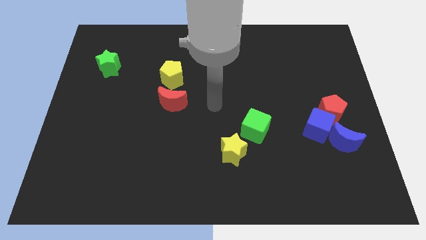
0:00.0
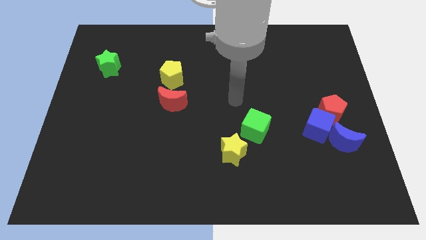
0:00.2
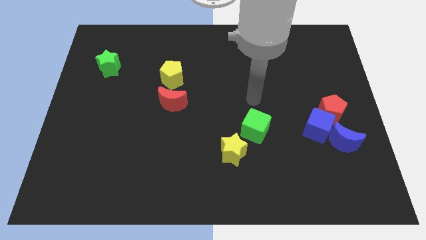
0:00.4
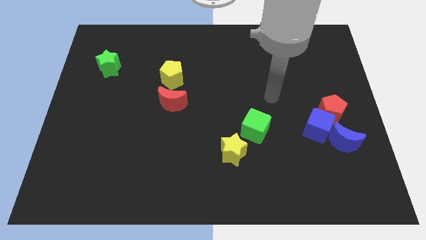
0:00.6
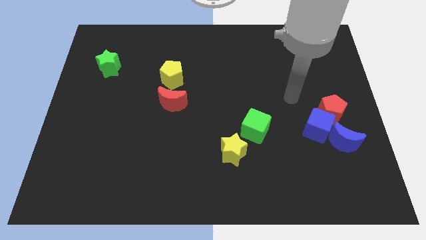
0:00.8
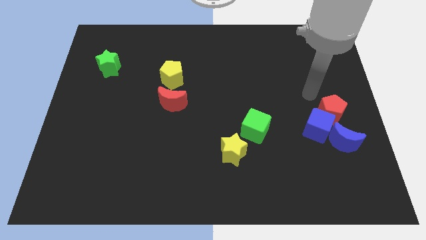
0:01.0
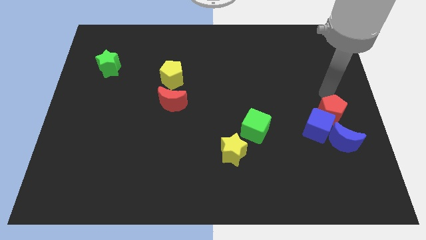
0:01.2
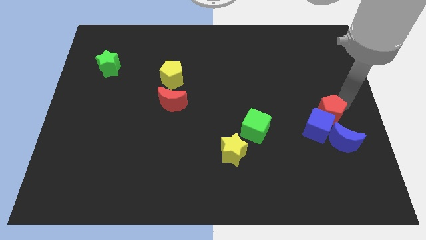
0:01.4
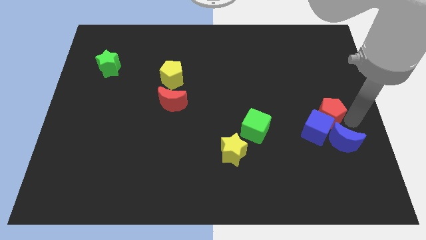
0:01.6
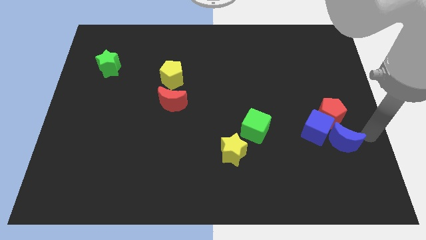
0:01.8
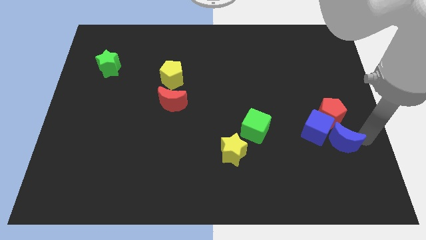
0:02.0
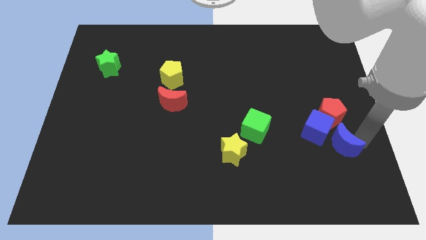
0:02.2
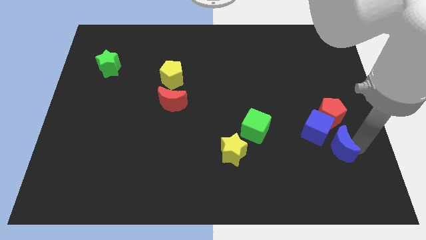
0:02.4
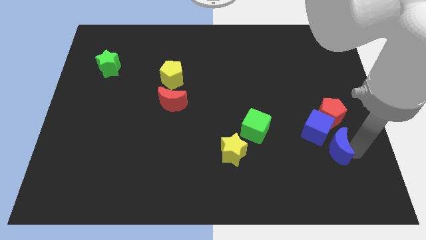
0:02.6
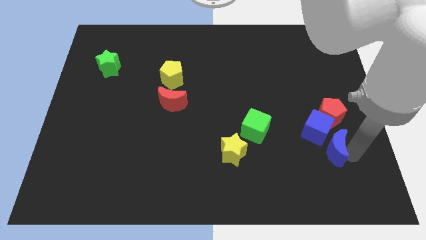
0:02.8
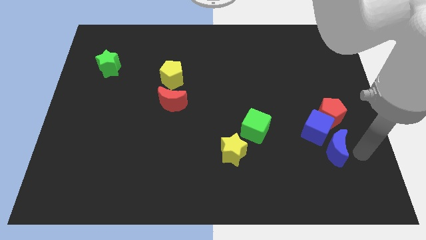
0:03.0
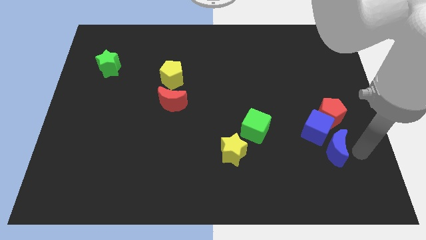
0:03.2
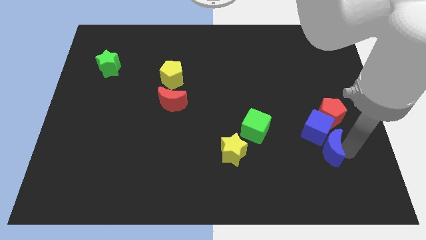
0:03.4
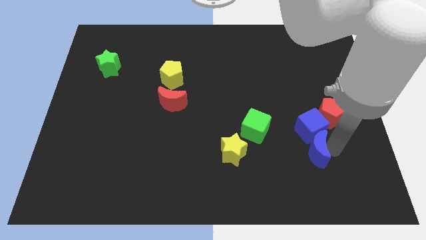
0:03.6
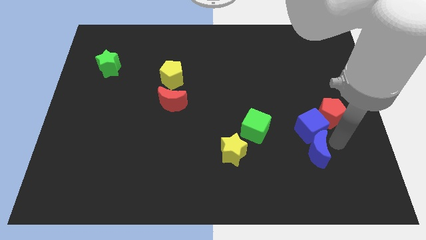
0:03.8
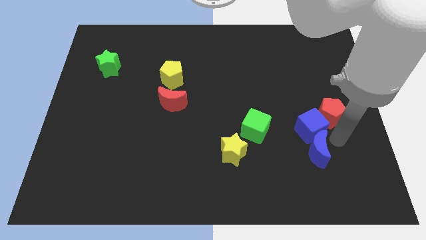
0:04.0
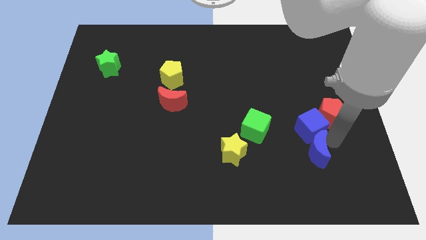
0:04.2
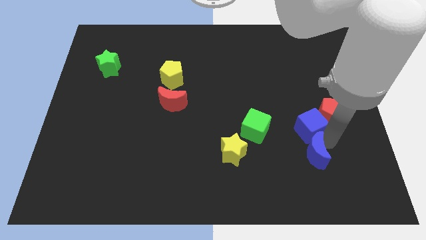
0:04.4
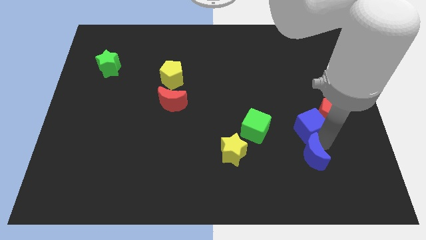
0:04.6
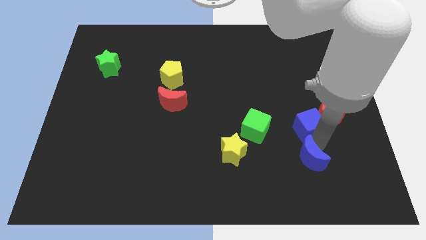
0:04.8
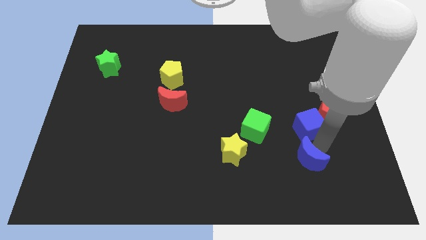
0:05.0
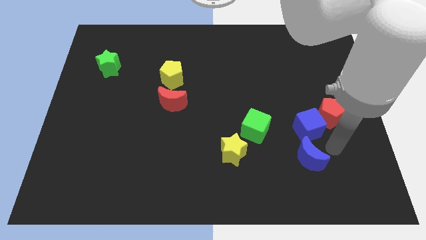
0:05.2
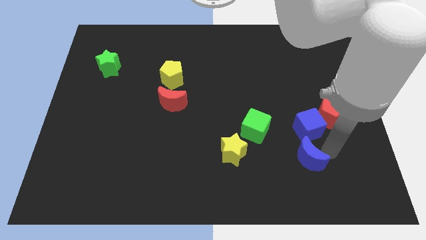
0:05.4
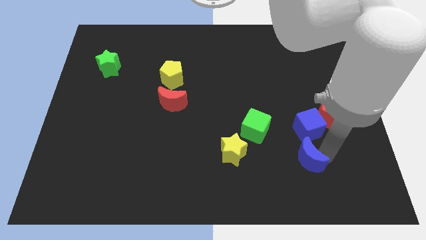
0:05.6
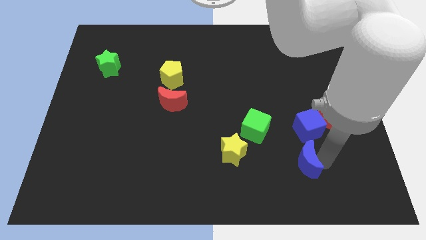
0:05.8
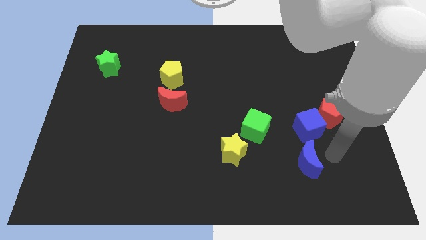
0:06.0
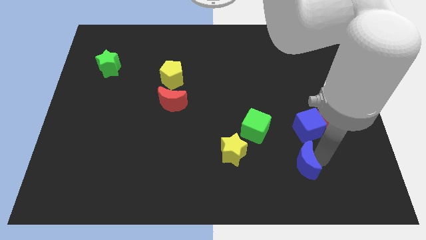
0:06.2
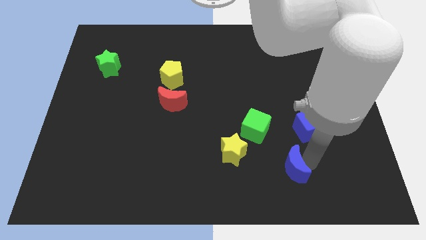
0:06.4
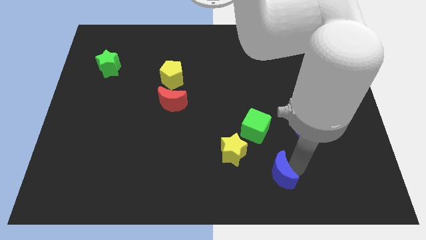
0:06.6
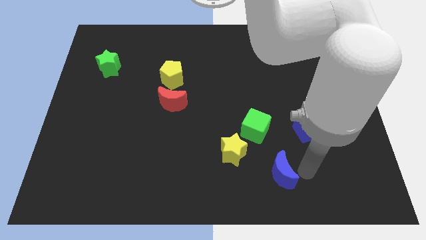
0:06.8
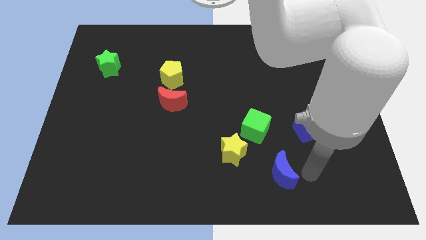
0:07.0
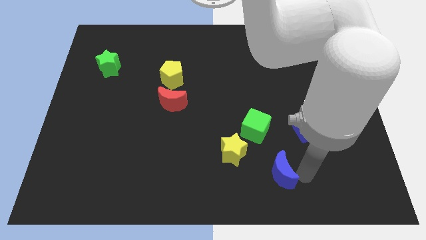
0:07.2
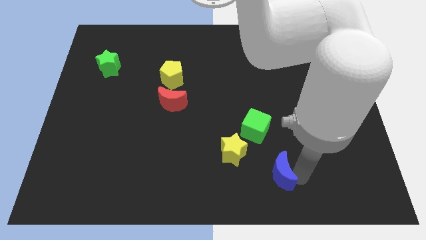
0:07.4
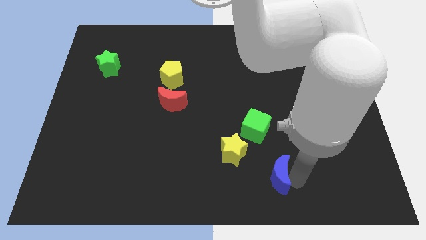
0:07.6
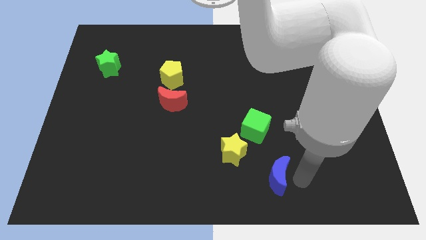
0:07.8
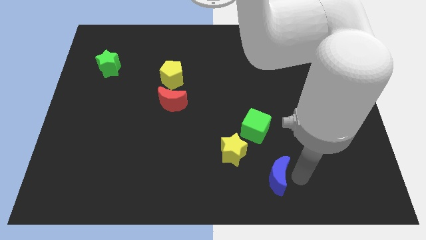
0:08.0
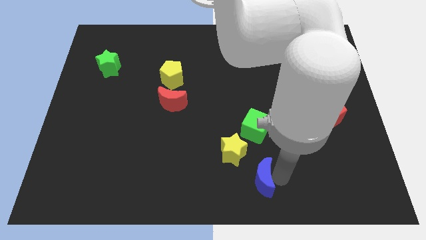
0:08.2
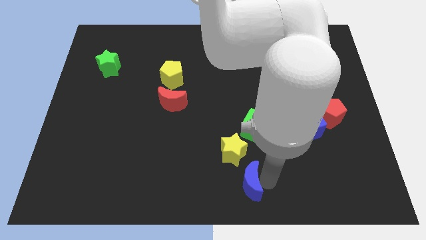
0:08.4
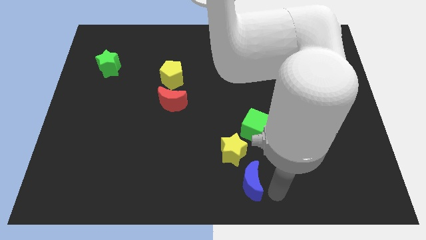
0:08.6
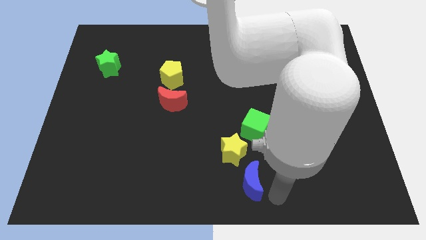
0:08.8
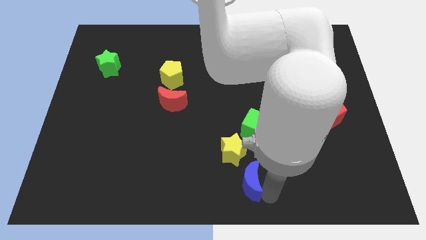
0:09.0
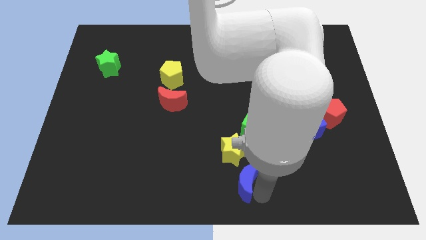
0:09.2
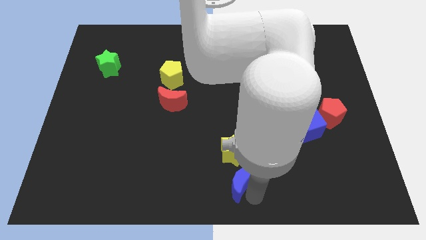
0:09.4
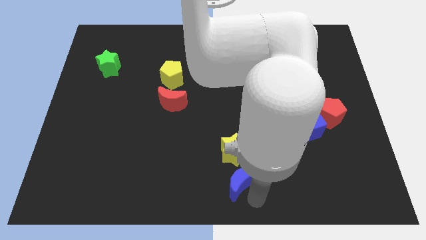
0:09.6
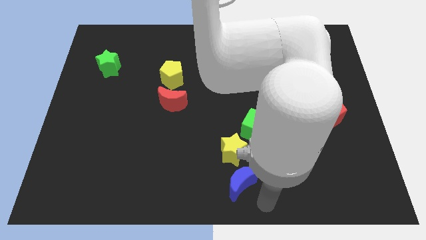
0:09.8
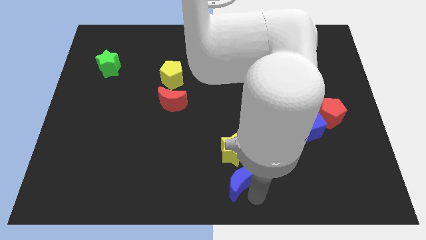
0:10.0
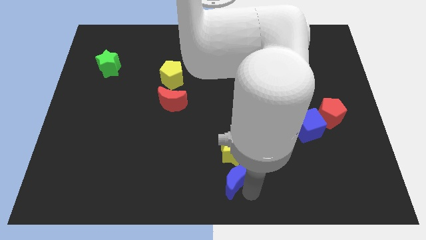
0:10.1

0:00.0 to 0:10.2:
move the blue moon to the left

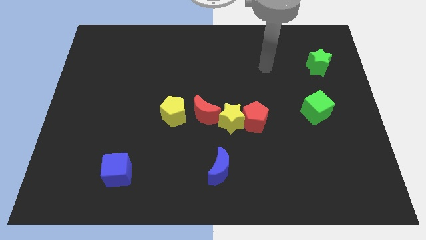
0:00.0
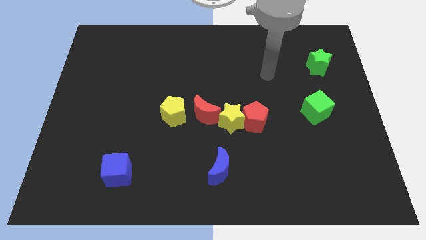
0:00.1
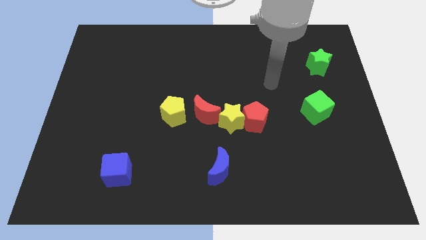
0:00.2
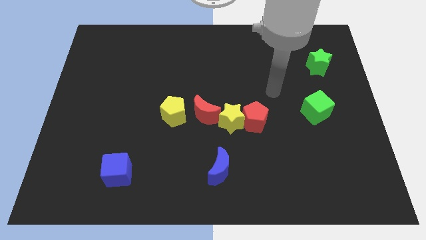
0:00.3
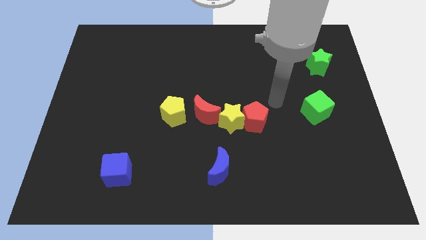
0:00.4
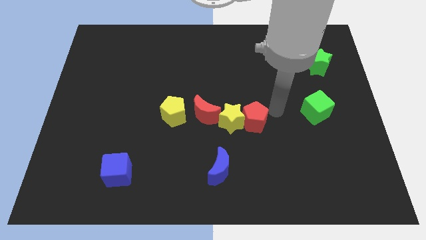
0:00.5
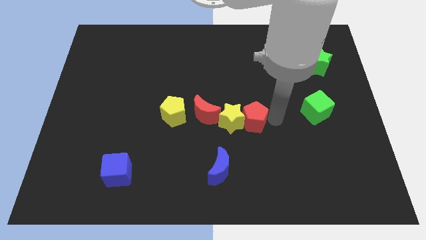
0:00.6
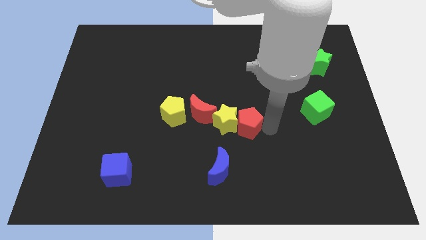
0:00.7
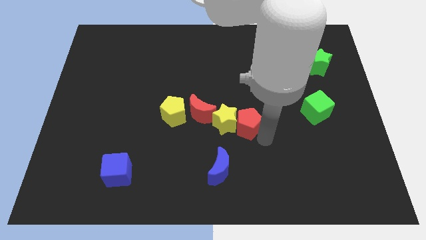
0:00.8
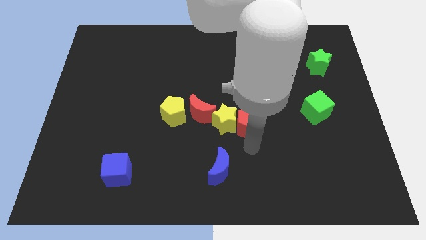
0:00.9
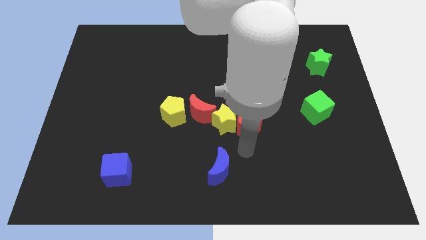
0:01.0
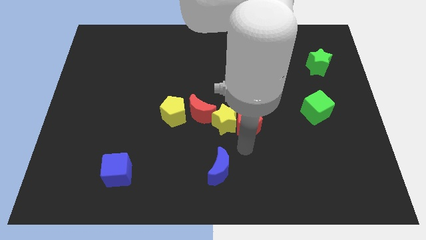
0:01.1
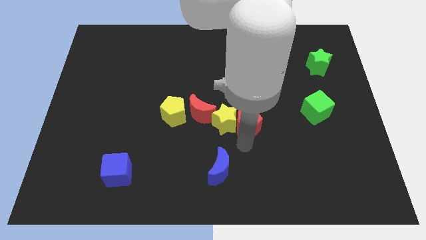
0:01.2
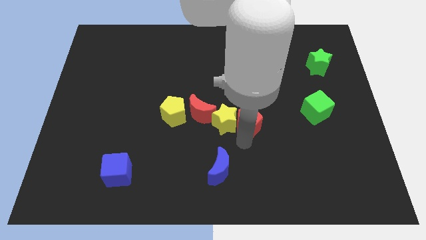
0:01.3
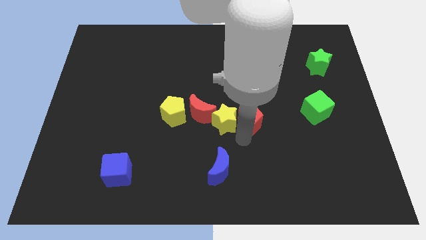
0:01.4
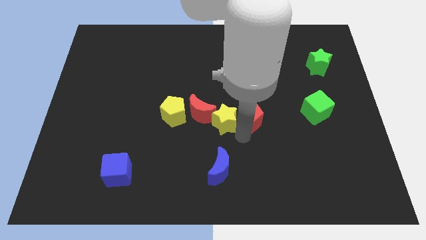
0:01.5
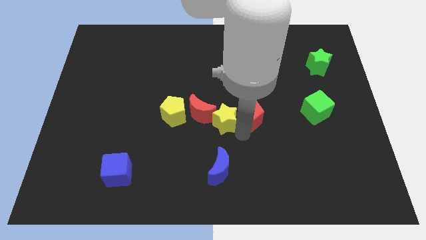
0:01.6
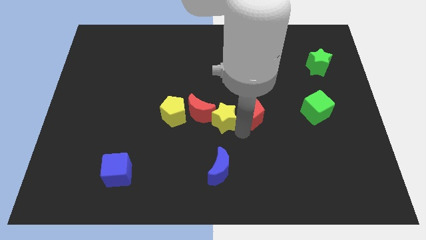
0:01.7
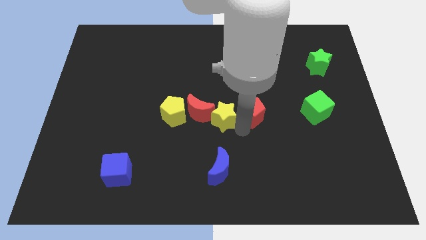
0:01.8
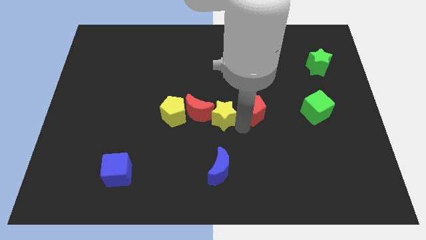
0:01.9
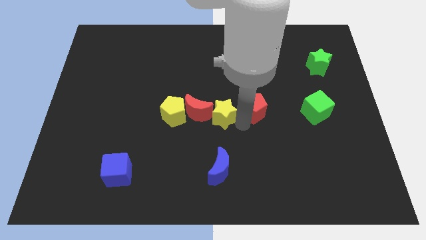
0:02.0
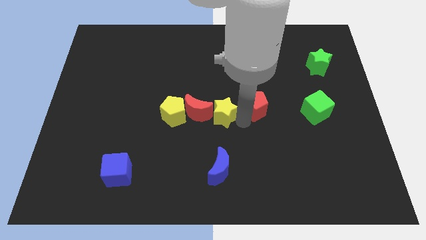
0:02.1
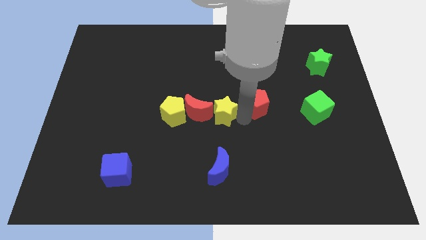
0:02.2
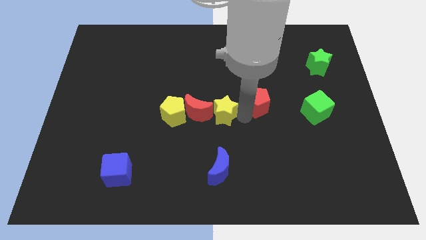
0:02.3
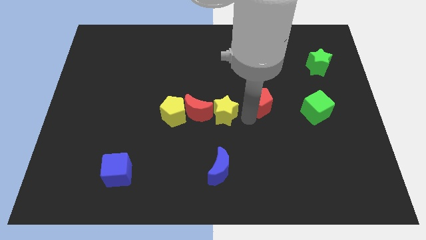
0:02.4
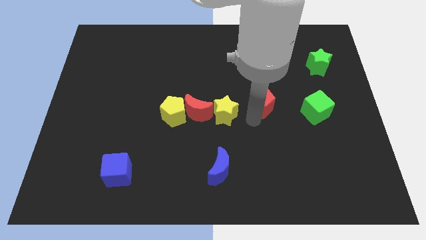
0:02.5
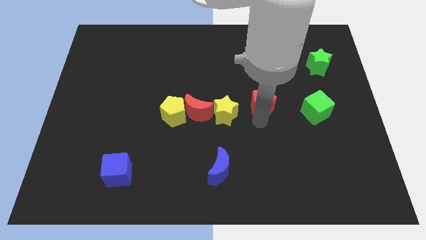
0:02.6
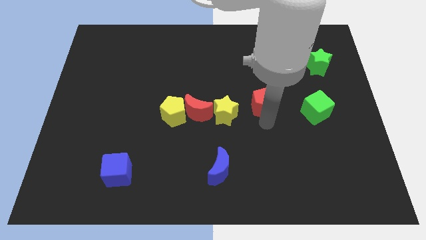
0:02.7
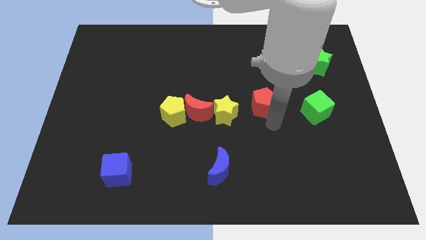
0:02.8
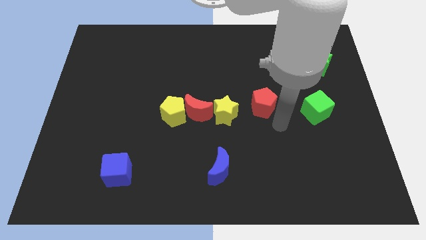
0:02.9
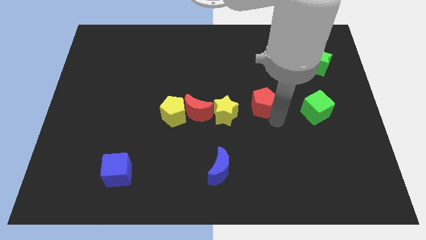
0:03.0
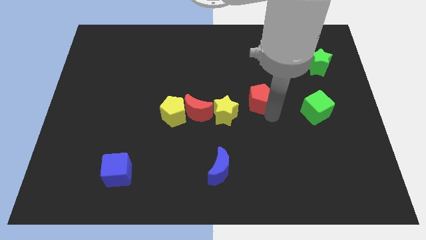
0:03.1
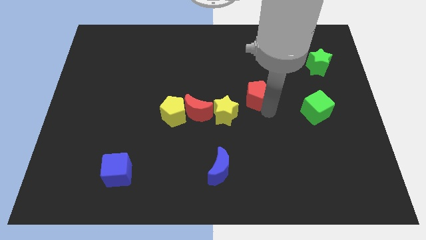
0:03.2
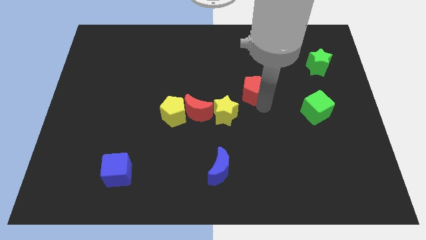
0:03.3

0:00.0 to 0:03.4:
push the red pentagon a little up

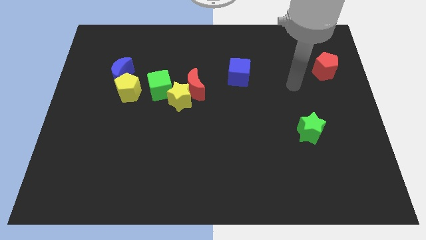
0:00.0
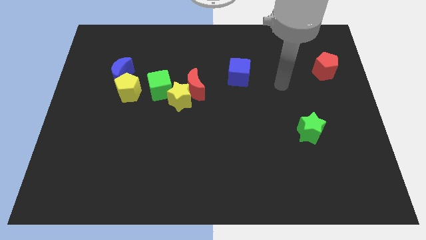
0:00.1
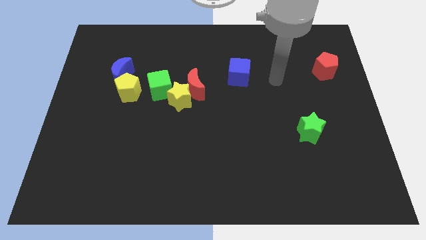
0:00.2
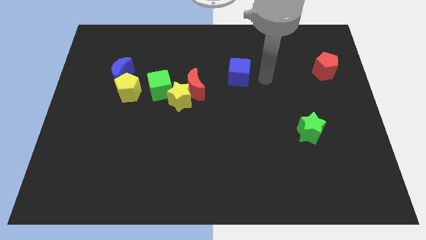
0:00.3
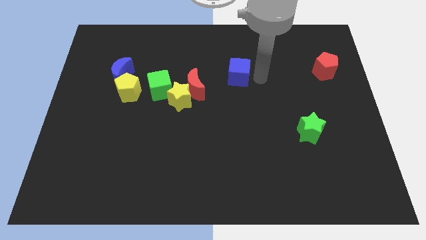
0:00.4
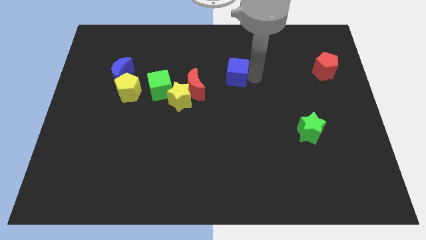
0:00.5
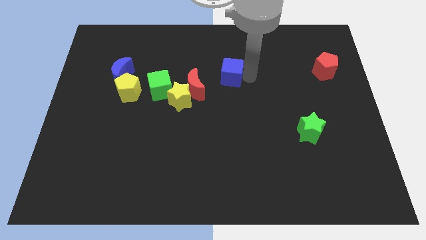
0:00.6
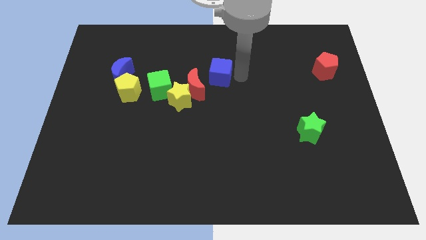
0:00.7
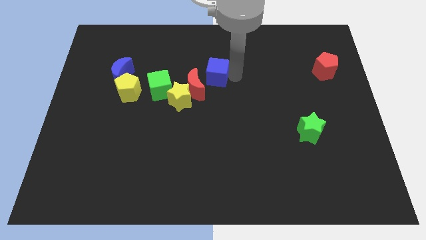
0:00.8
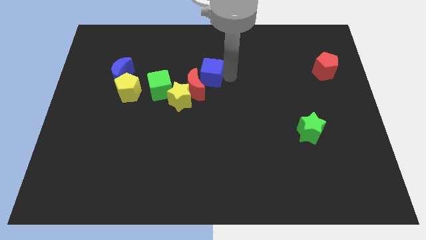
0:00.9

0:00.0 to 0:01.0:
move the blue cube left a little
